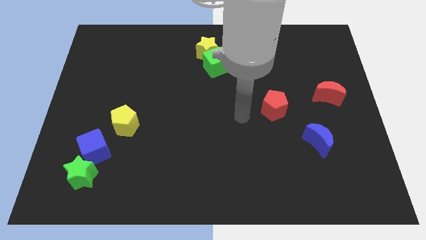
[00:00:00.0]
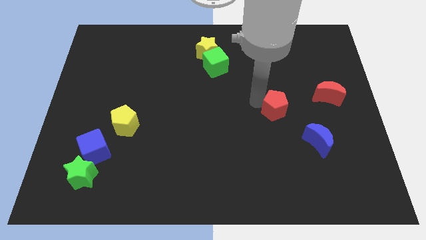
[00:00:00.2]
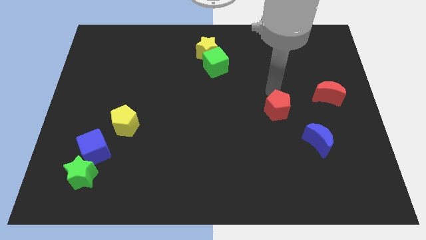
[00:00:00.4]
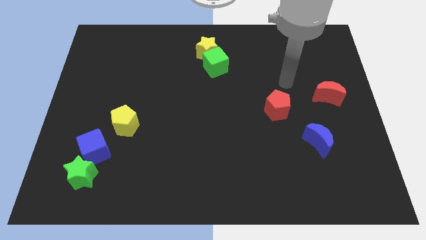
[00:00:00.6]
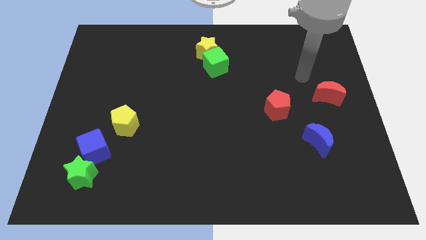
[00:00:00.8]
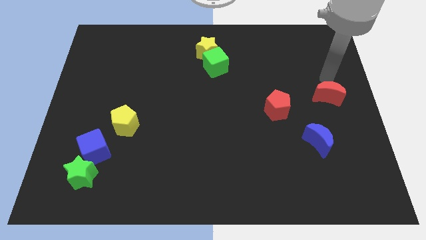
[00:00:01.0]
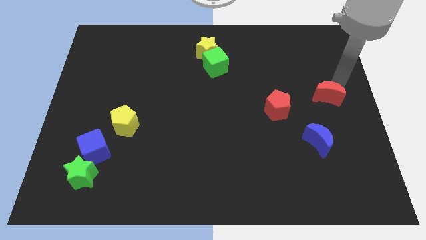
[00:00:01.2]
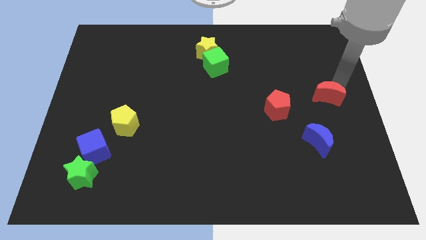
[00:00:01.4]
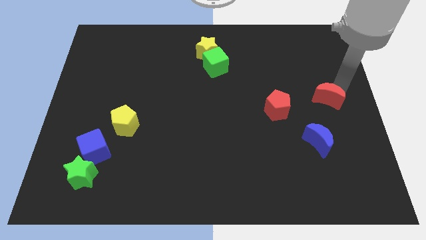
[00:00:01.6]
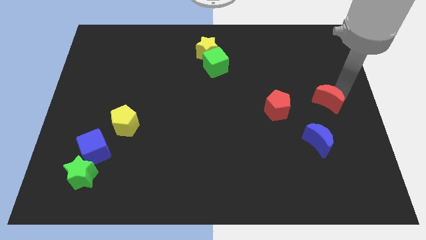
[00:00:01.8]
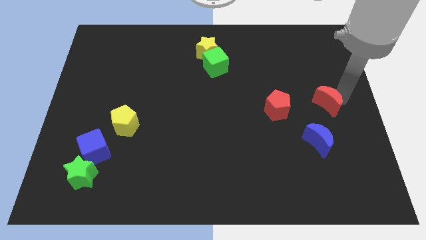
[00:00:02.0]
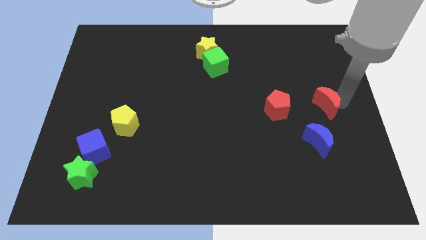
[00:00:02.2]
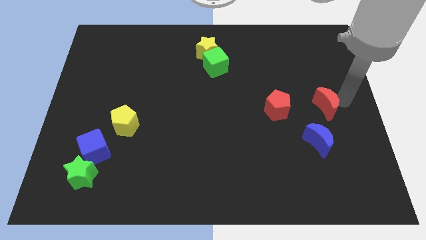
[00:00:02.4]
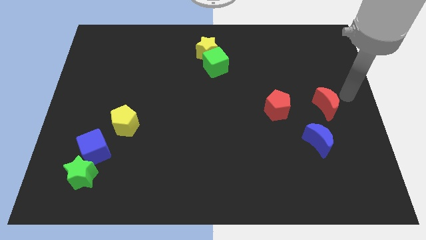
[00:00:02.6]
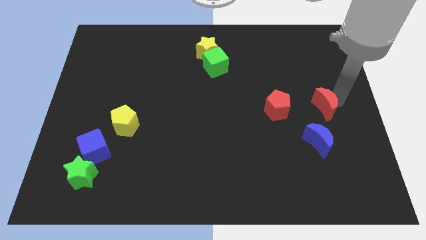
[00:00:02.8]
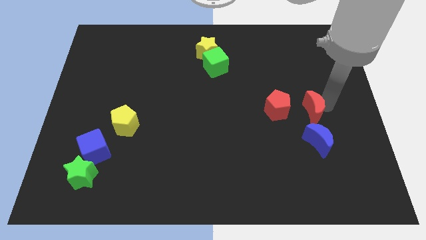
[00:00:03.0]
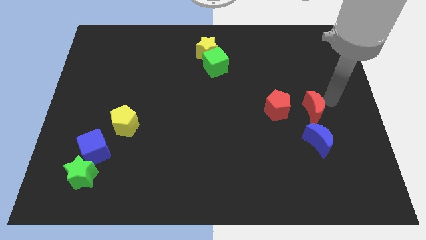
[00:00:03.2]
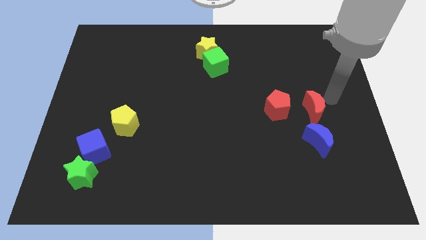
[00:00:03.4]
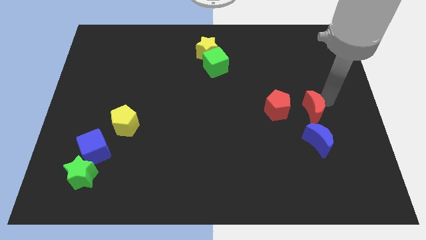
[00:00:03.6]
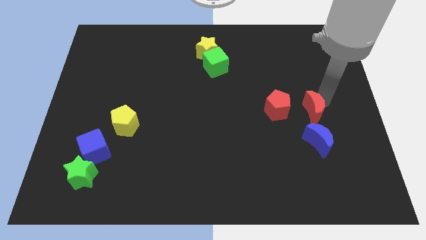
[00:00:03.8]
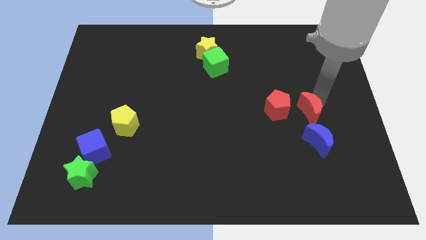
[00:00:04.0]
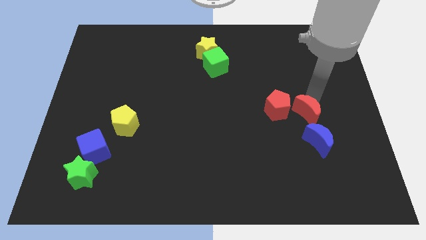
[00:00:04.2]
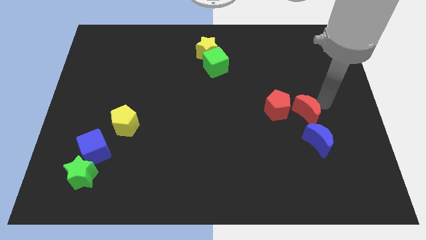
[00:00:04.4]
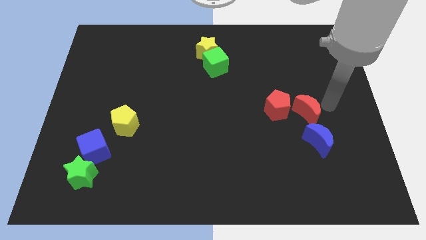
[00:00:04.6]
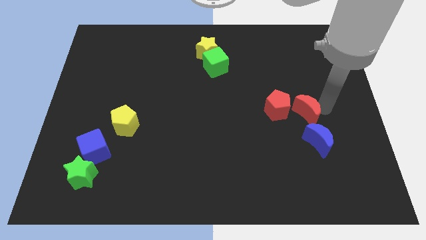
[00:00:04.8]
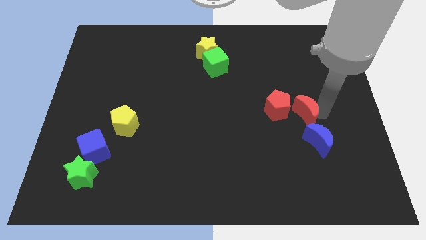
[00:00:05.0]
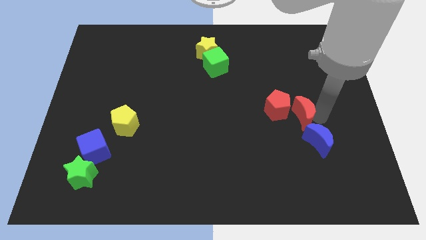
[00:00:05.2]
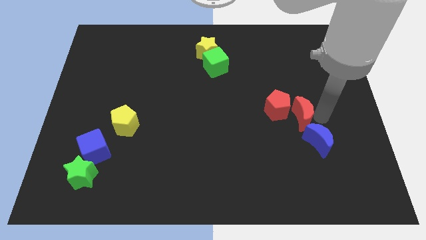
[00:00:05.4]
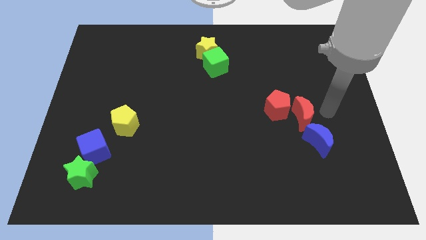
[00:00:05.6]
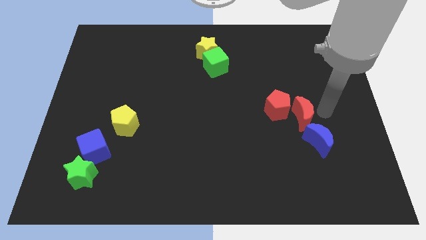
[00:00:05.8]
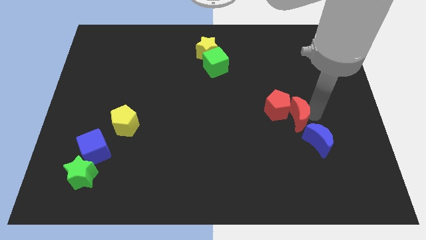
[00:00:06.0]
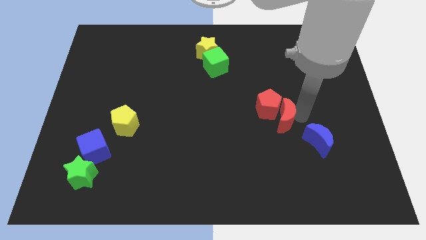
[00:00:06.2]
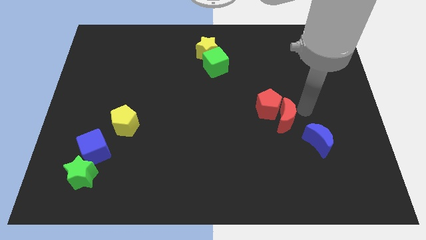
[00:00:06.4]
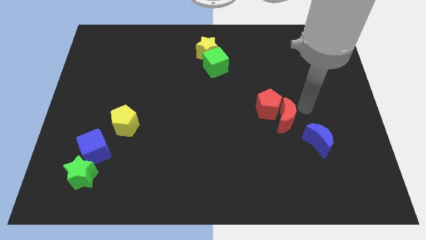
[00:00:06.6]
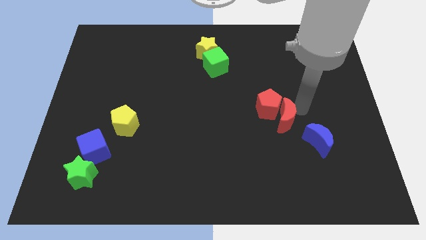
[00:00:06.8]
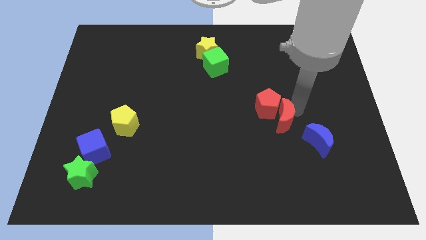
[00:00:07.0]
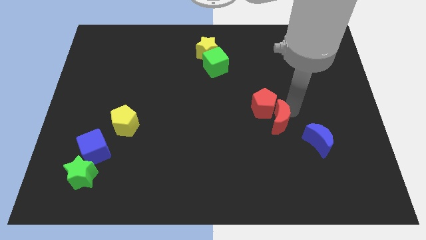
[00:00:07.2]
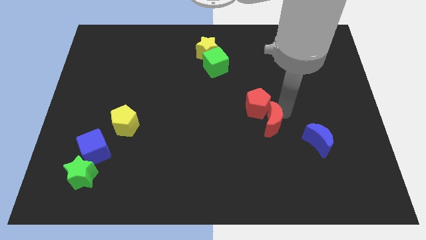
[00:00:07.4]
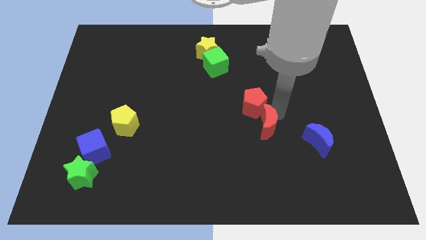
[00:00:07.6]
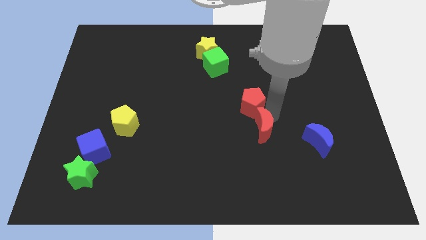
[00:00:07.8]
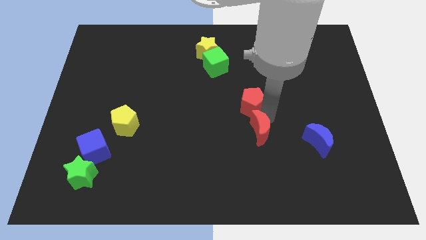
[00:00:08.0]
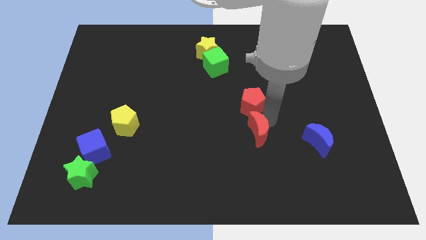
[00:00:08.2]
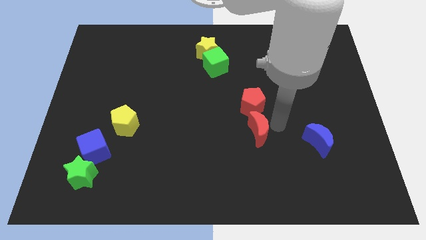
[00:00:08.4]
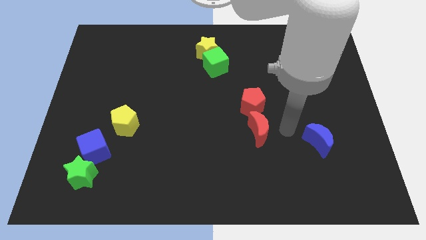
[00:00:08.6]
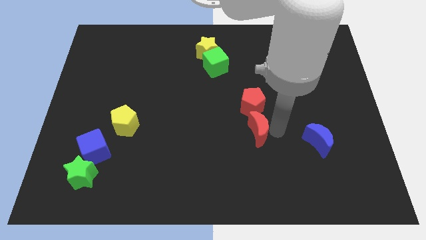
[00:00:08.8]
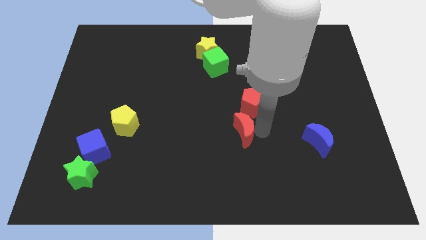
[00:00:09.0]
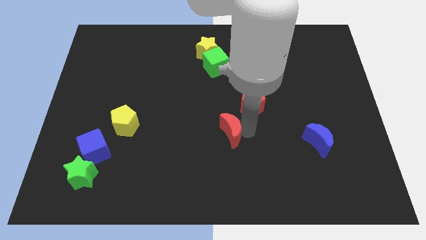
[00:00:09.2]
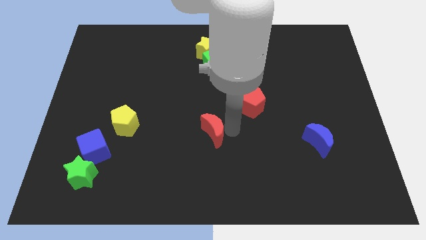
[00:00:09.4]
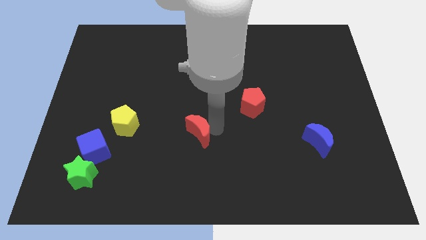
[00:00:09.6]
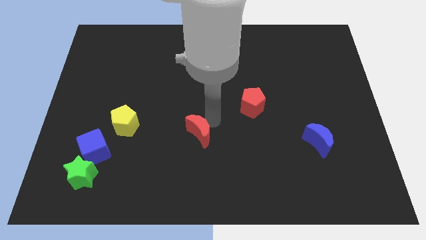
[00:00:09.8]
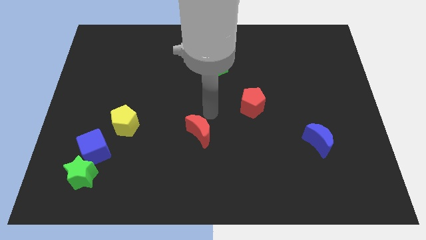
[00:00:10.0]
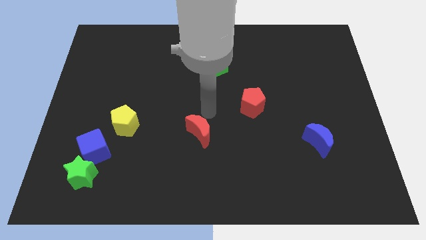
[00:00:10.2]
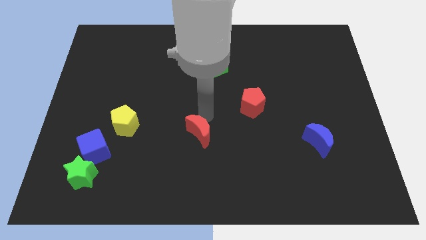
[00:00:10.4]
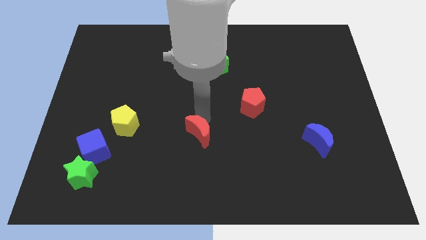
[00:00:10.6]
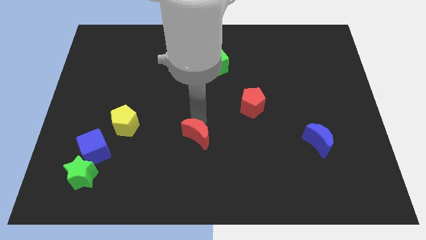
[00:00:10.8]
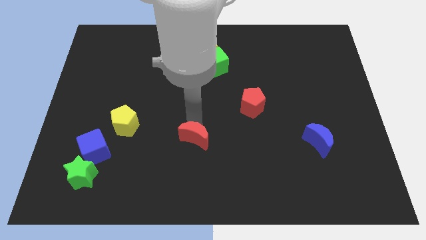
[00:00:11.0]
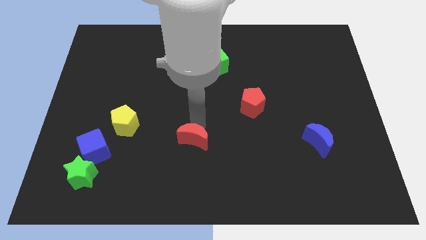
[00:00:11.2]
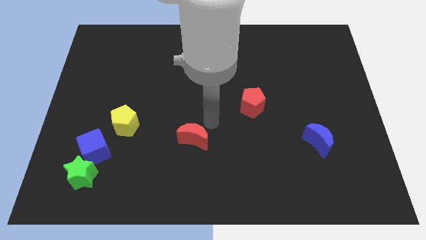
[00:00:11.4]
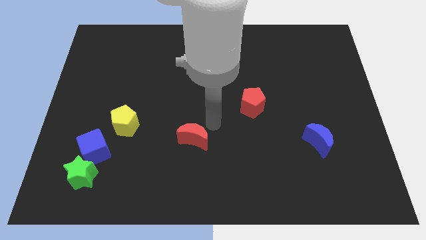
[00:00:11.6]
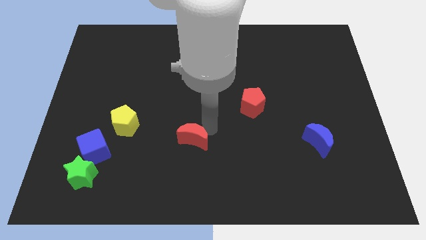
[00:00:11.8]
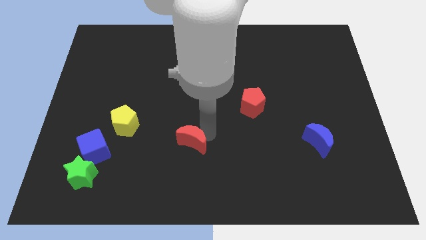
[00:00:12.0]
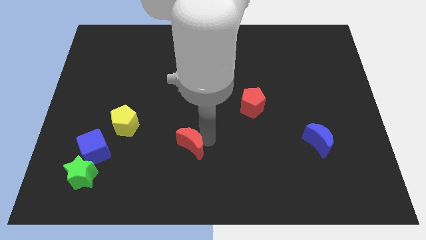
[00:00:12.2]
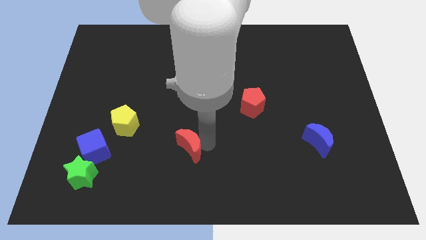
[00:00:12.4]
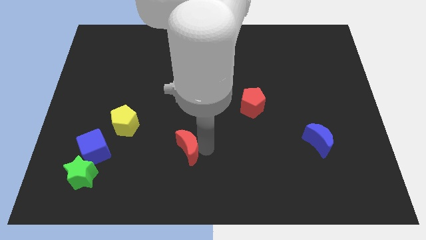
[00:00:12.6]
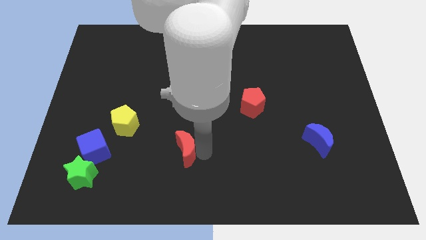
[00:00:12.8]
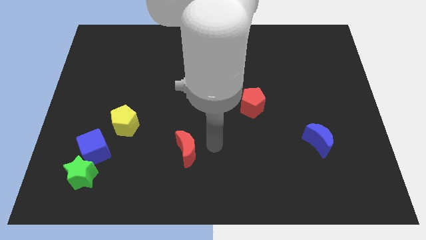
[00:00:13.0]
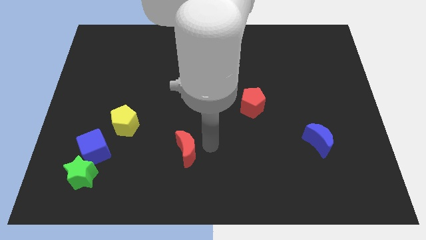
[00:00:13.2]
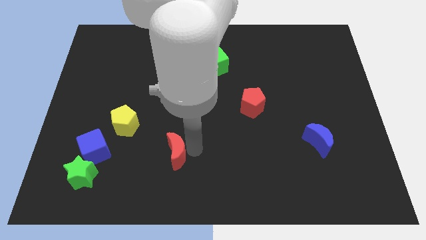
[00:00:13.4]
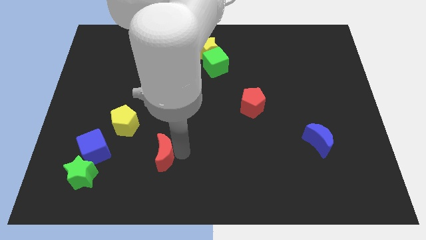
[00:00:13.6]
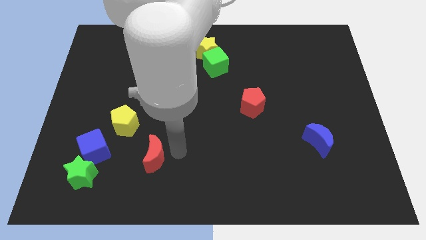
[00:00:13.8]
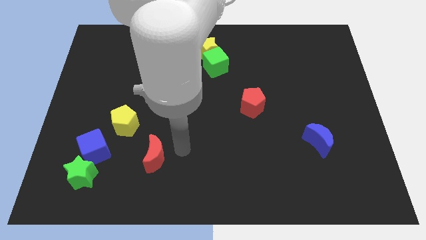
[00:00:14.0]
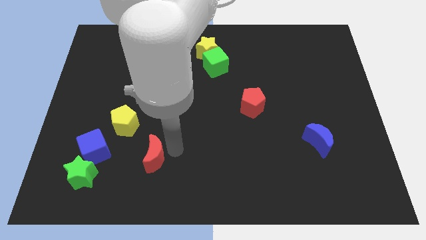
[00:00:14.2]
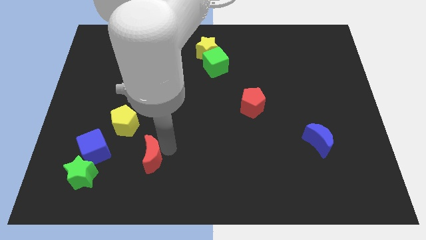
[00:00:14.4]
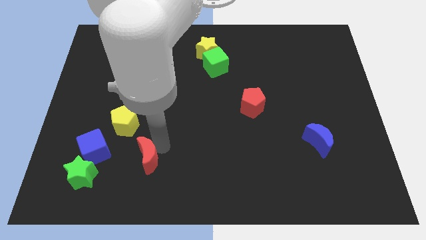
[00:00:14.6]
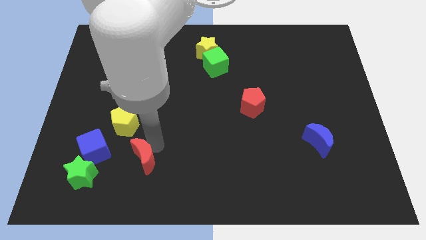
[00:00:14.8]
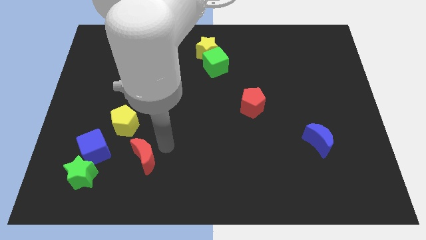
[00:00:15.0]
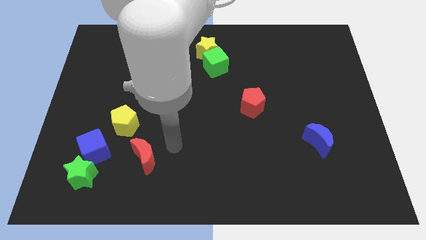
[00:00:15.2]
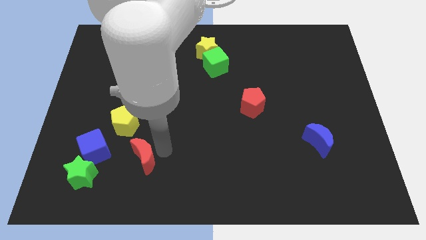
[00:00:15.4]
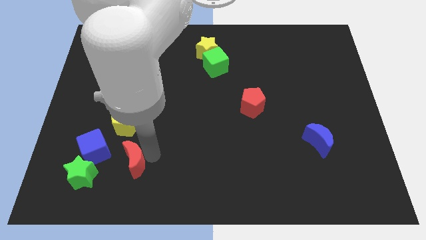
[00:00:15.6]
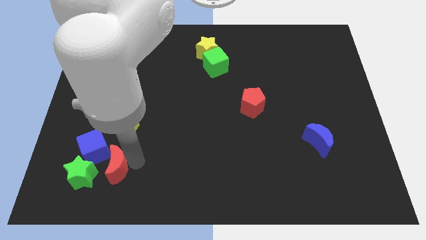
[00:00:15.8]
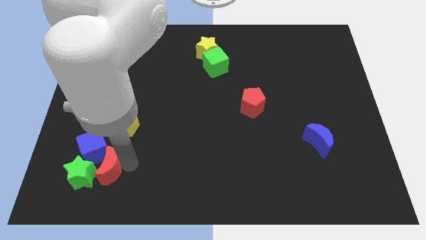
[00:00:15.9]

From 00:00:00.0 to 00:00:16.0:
move the red moon towards the green star
